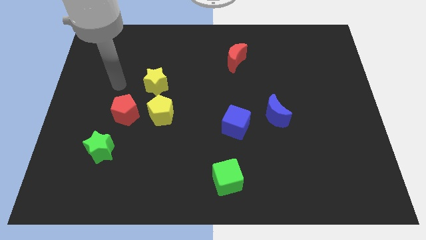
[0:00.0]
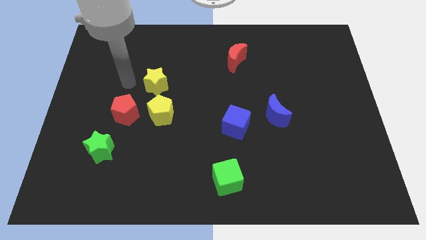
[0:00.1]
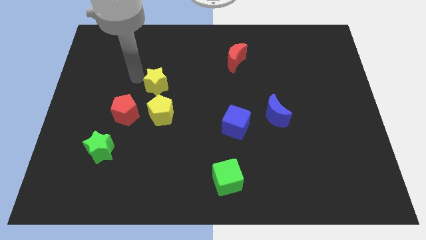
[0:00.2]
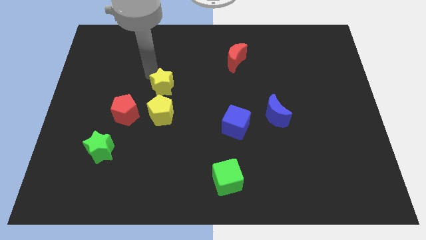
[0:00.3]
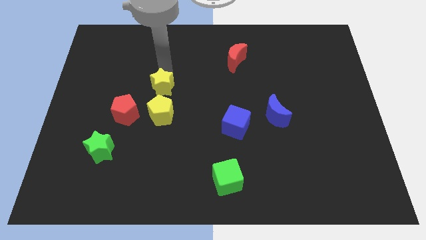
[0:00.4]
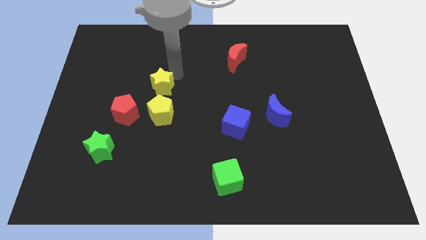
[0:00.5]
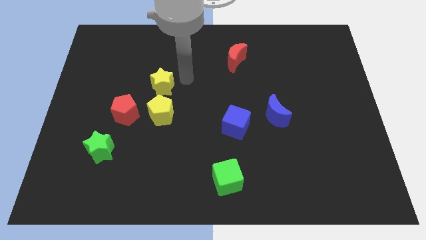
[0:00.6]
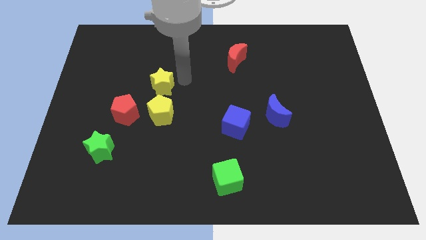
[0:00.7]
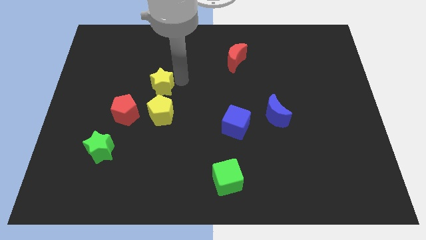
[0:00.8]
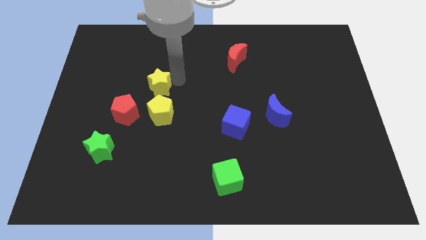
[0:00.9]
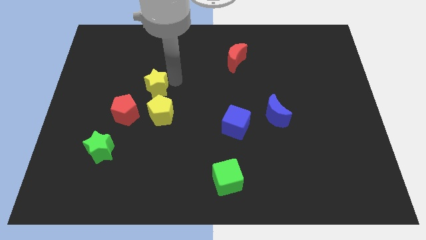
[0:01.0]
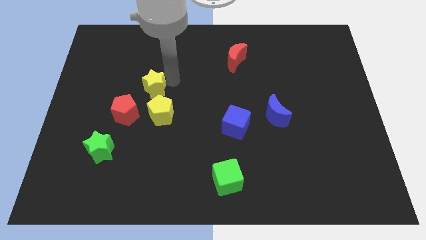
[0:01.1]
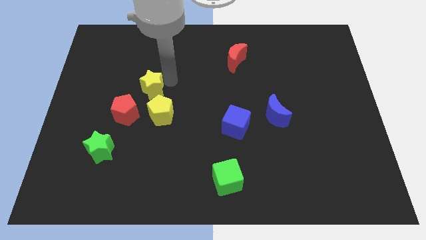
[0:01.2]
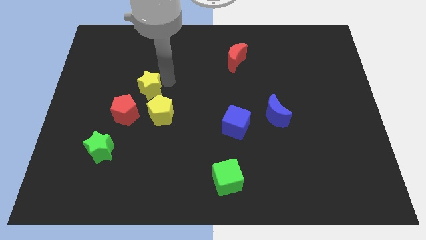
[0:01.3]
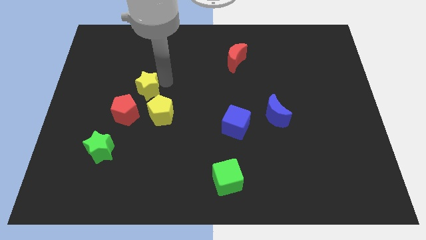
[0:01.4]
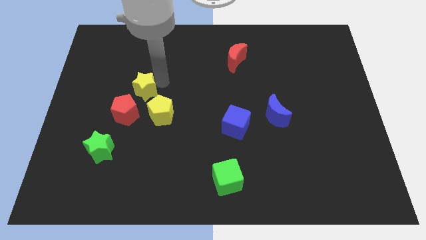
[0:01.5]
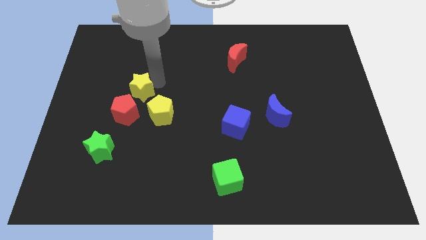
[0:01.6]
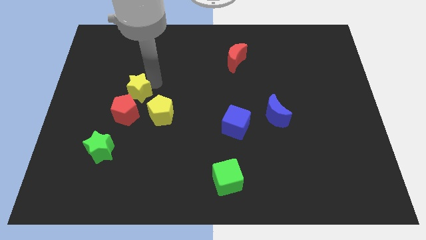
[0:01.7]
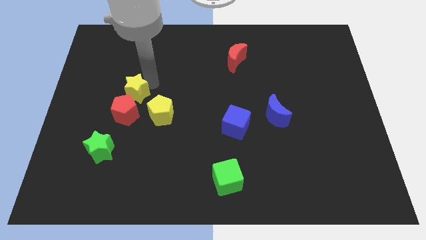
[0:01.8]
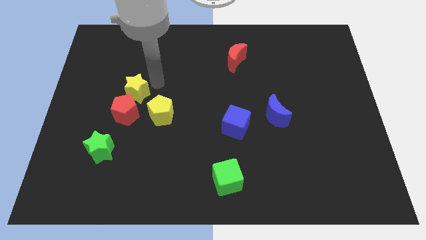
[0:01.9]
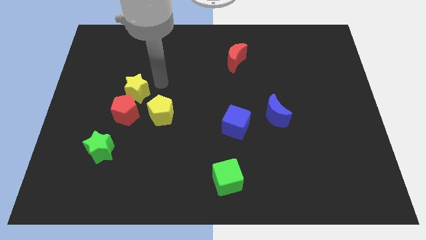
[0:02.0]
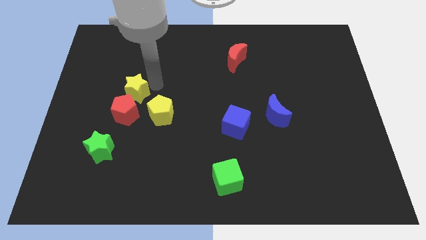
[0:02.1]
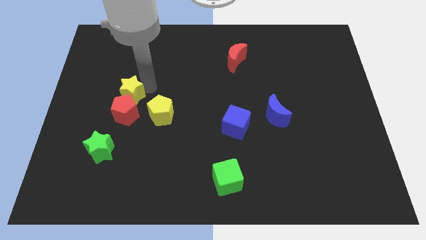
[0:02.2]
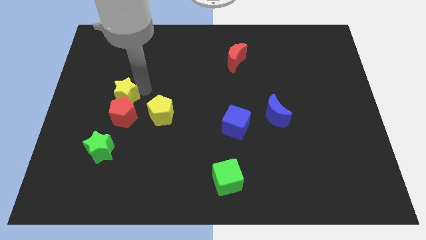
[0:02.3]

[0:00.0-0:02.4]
move the yellow star diagonally down and to the left a little

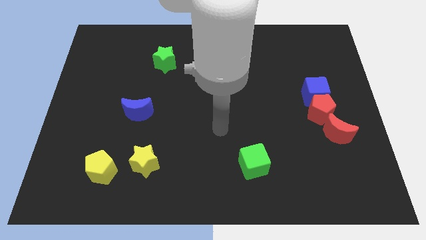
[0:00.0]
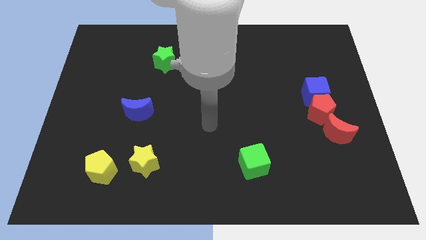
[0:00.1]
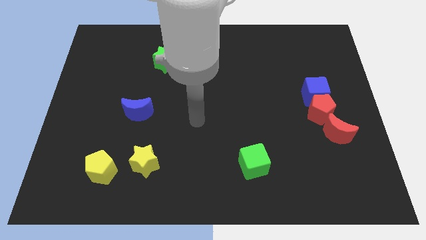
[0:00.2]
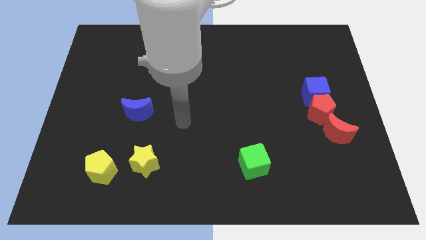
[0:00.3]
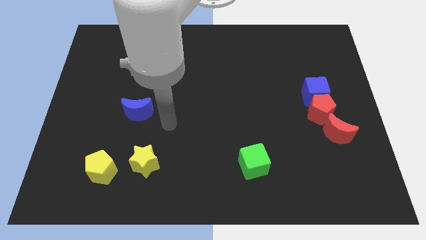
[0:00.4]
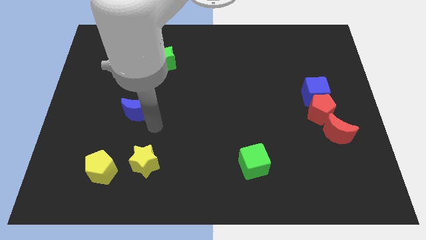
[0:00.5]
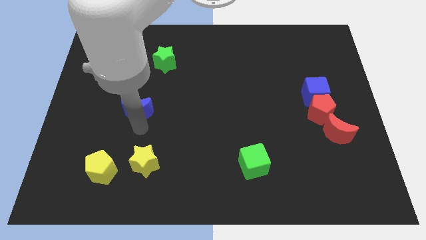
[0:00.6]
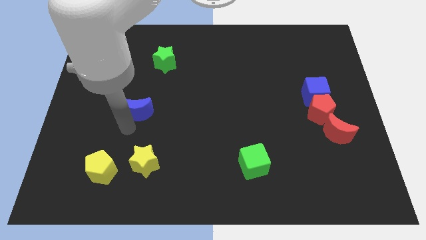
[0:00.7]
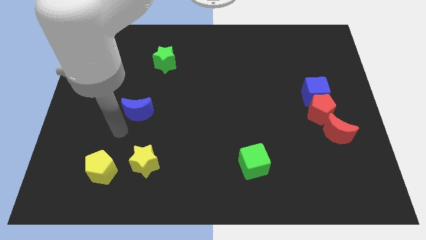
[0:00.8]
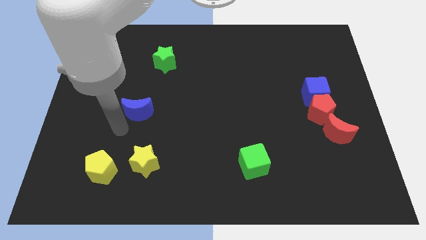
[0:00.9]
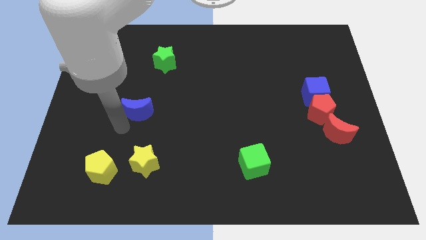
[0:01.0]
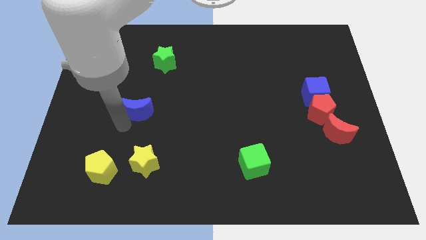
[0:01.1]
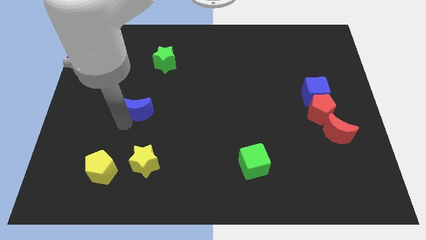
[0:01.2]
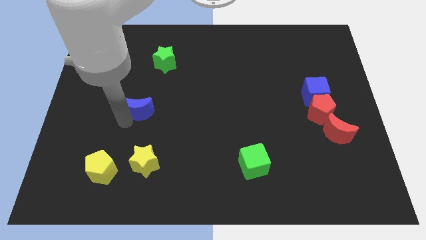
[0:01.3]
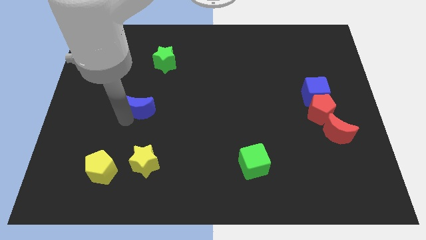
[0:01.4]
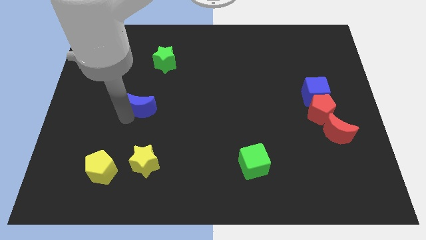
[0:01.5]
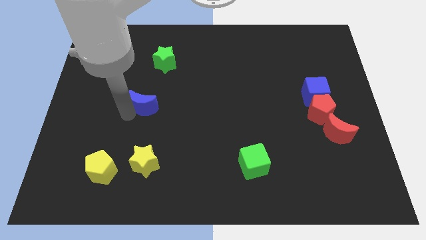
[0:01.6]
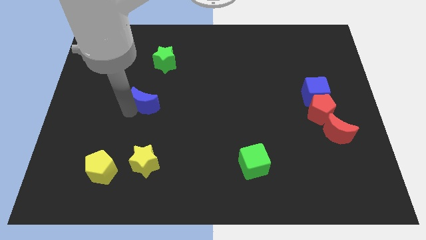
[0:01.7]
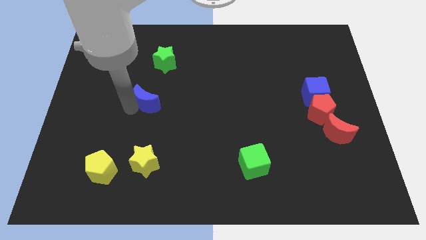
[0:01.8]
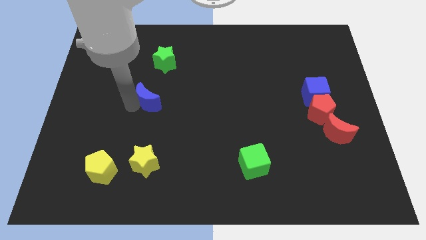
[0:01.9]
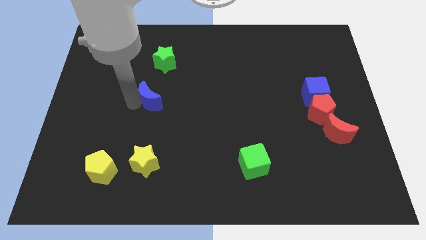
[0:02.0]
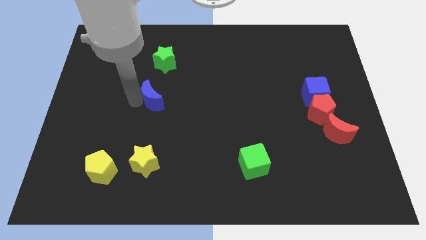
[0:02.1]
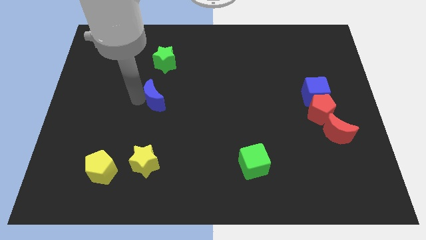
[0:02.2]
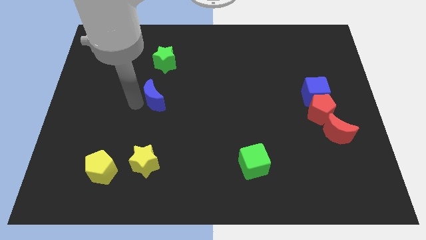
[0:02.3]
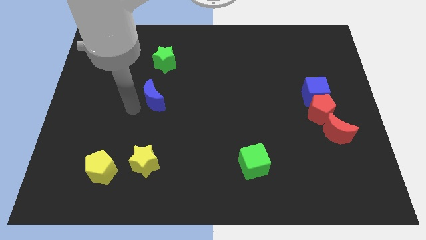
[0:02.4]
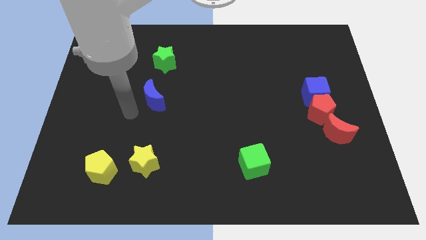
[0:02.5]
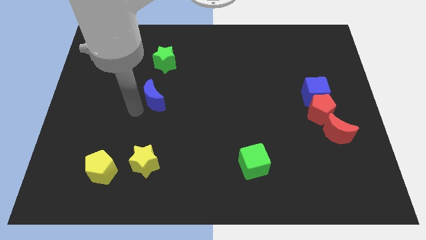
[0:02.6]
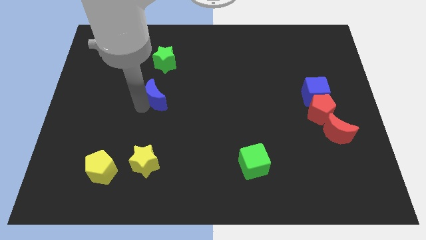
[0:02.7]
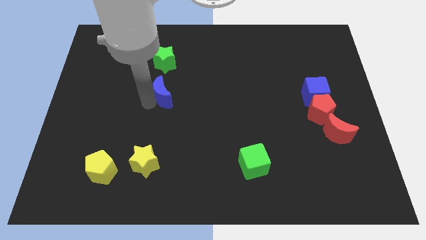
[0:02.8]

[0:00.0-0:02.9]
push the blue moon diagonally up and to the right slightly

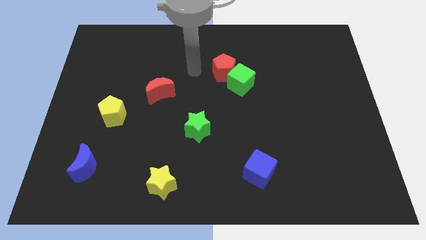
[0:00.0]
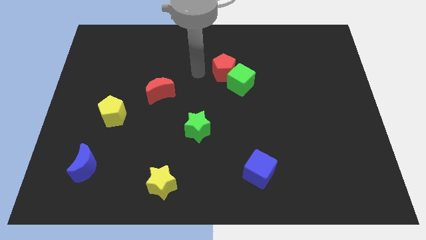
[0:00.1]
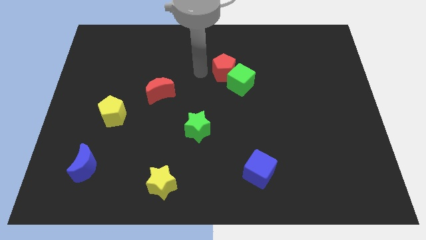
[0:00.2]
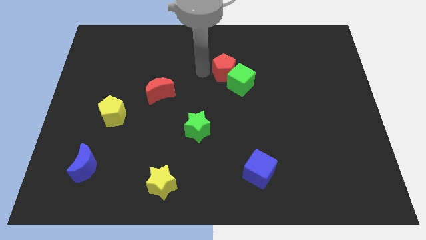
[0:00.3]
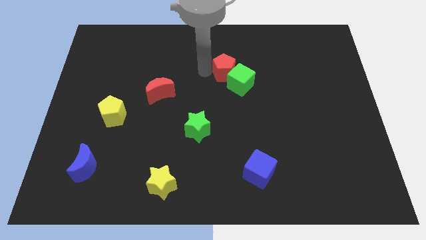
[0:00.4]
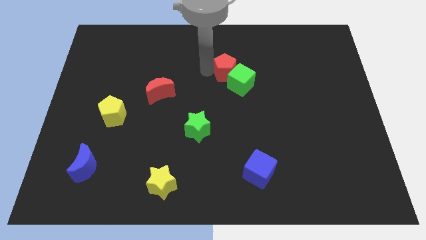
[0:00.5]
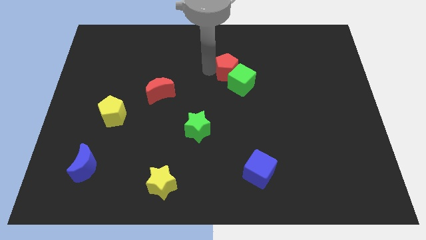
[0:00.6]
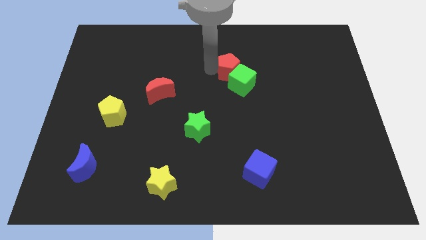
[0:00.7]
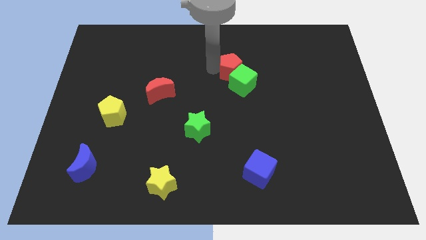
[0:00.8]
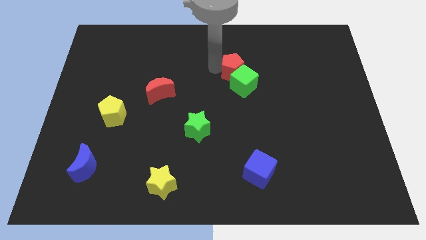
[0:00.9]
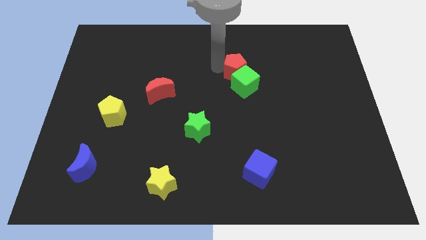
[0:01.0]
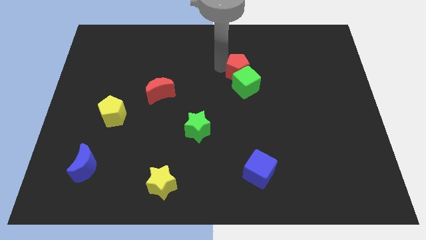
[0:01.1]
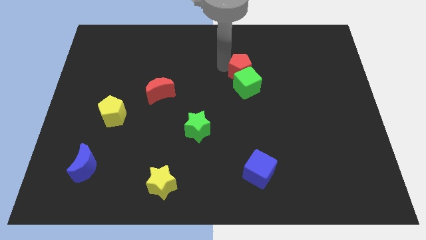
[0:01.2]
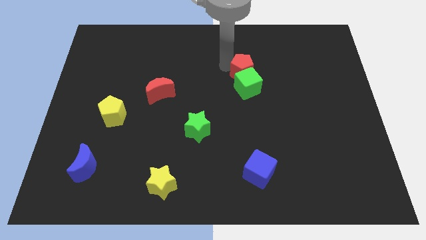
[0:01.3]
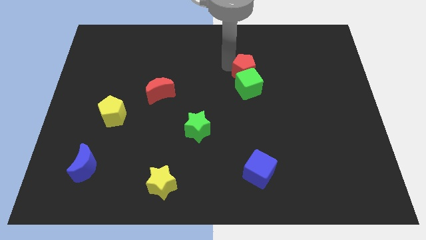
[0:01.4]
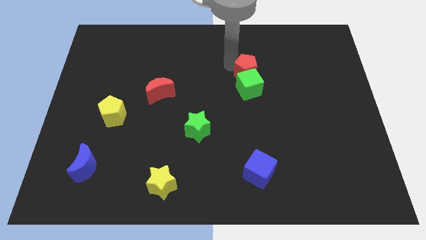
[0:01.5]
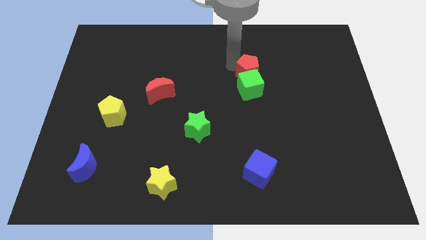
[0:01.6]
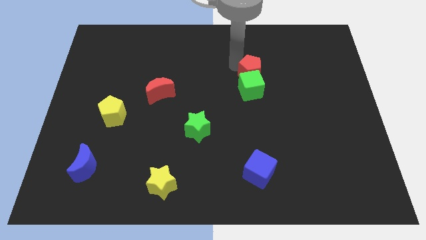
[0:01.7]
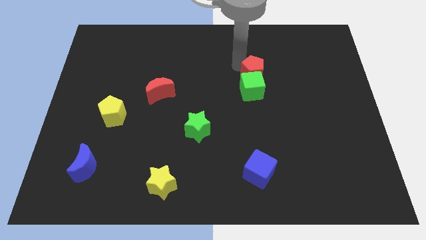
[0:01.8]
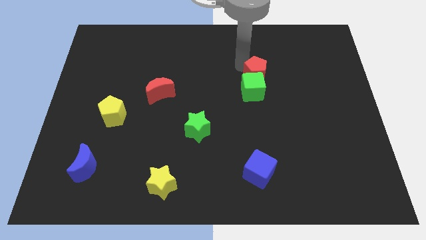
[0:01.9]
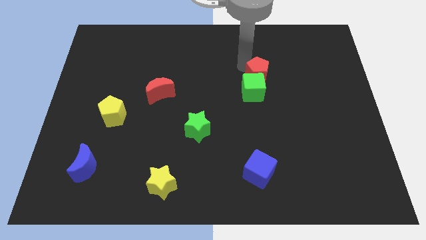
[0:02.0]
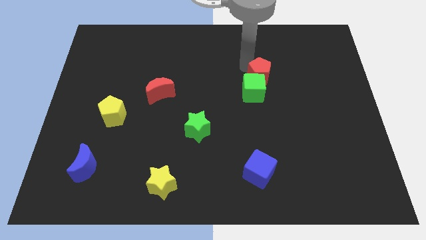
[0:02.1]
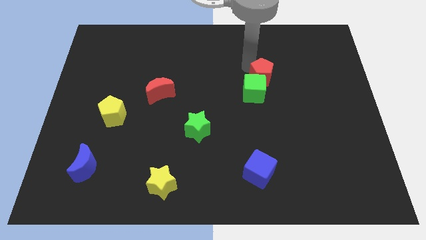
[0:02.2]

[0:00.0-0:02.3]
slide the red pentagon downwards and then right a bit

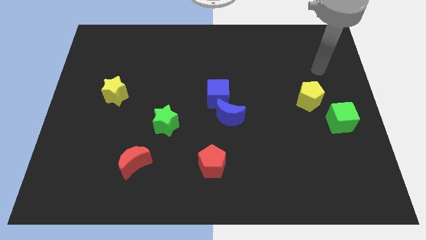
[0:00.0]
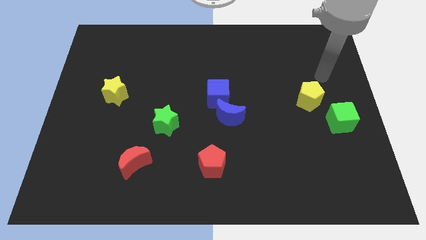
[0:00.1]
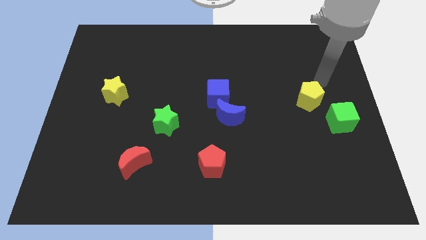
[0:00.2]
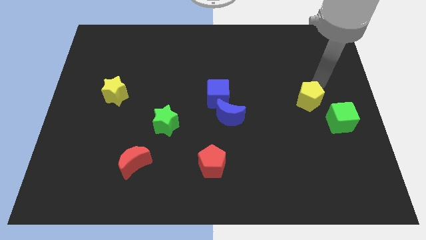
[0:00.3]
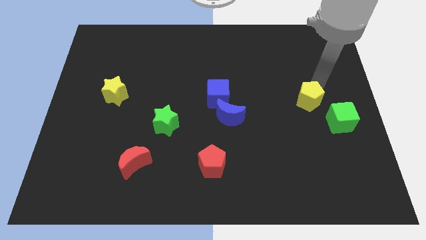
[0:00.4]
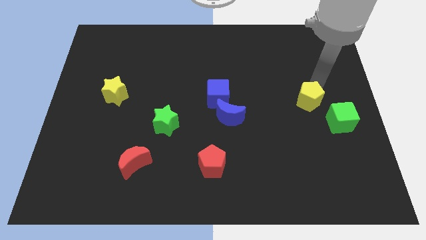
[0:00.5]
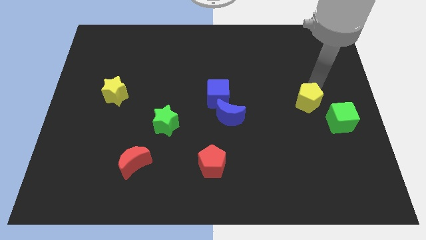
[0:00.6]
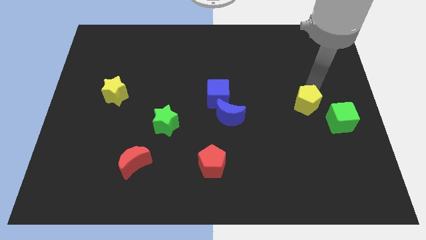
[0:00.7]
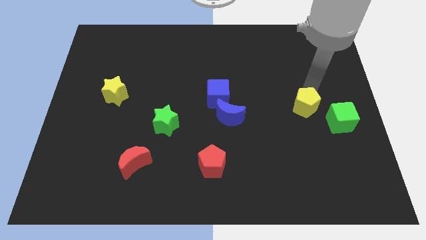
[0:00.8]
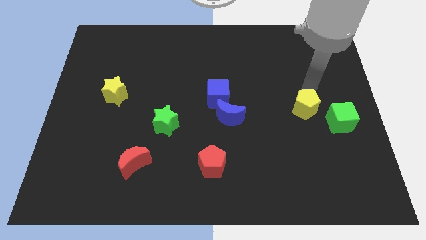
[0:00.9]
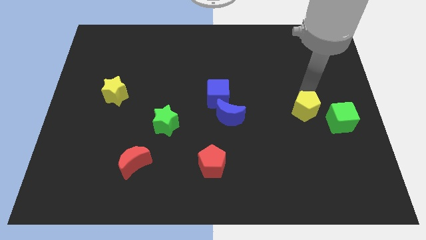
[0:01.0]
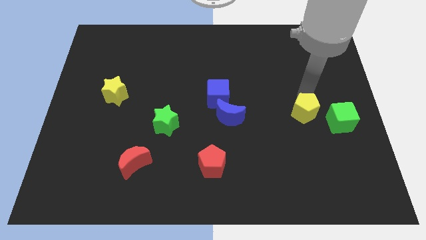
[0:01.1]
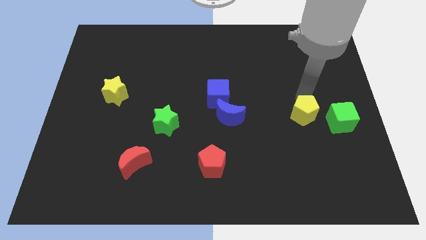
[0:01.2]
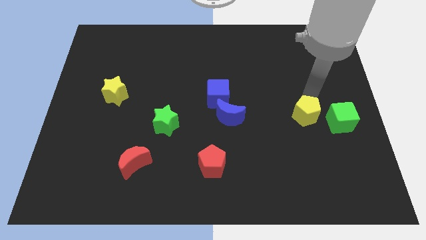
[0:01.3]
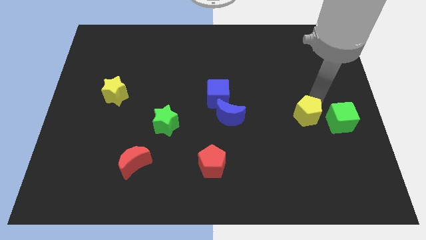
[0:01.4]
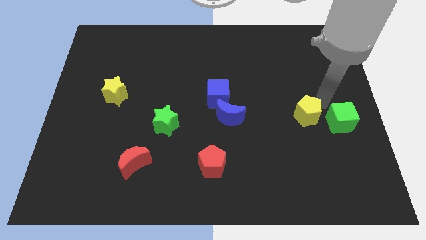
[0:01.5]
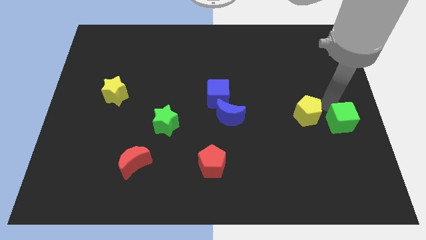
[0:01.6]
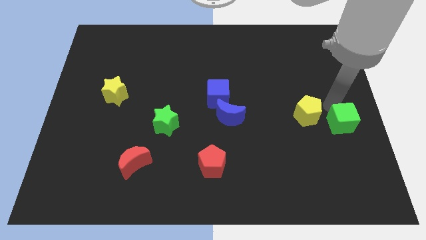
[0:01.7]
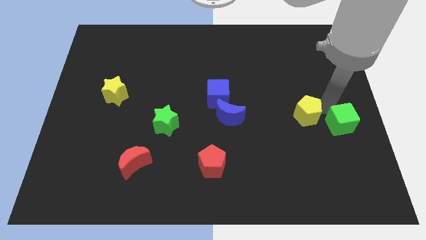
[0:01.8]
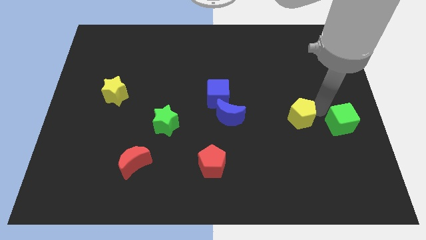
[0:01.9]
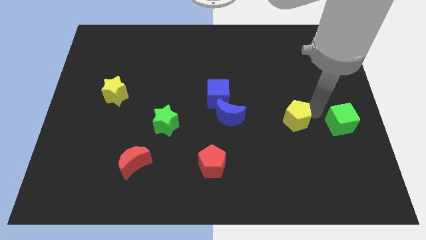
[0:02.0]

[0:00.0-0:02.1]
slide the yellow pentagon a little bit downwards and to the left diagonally
